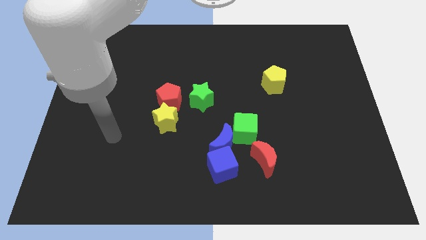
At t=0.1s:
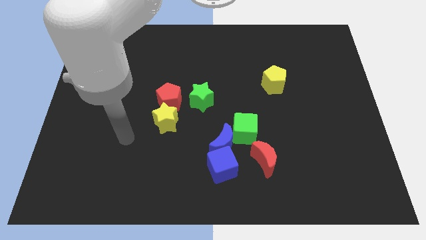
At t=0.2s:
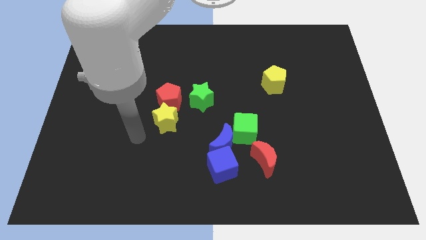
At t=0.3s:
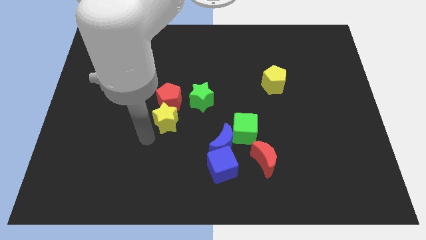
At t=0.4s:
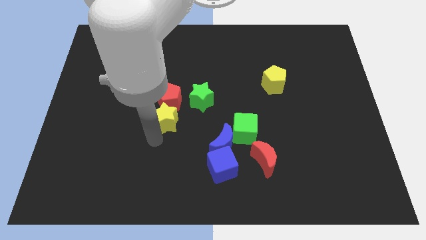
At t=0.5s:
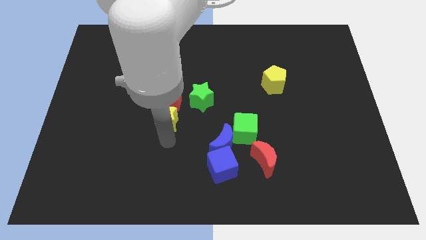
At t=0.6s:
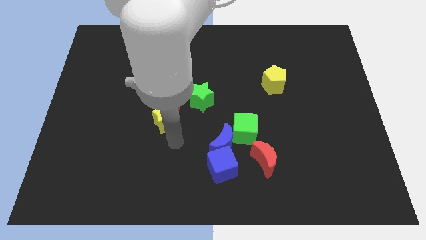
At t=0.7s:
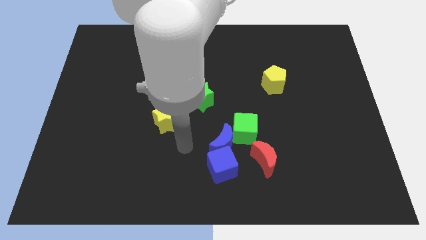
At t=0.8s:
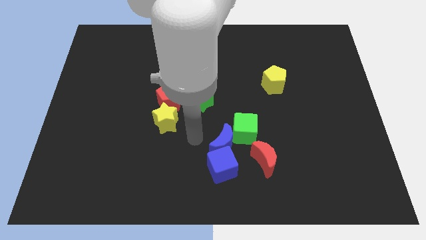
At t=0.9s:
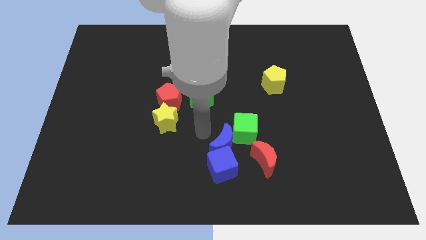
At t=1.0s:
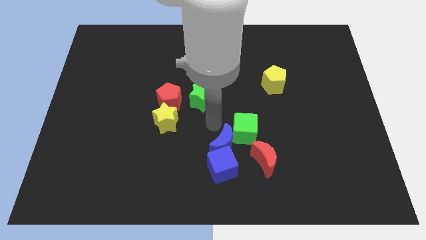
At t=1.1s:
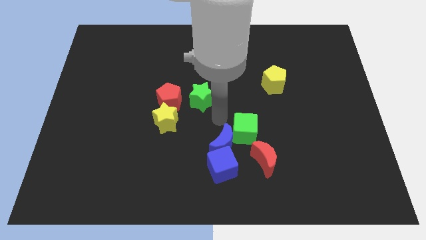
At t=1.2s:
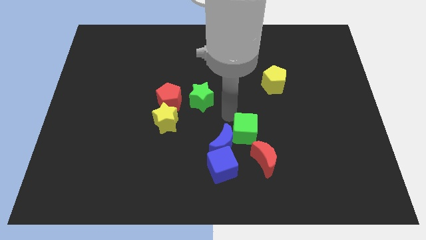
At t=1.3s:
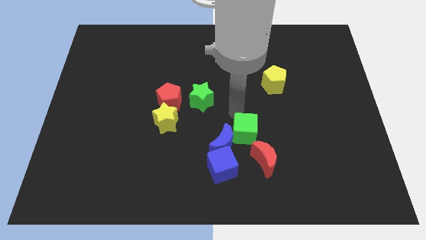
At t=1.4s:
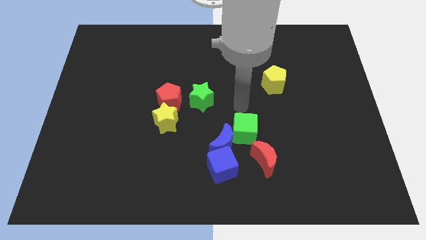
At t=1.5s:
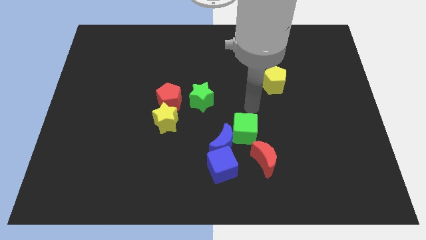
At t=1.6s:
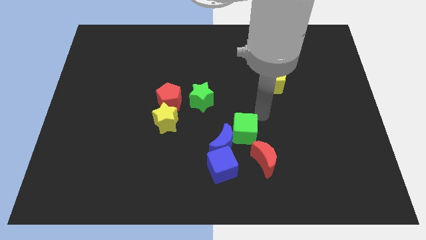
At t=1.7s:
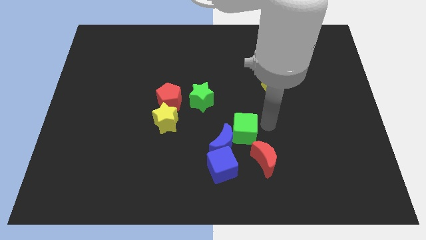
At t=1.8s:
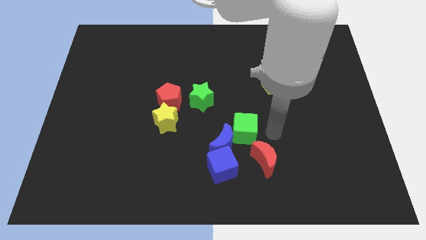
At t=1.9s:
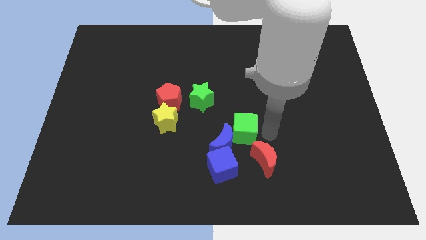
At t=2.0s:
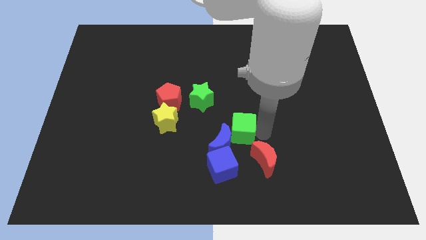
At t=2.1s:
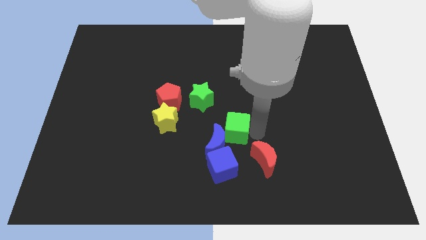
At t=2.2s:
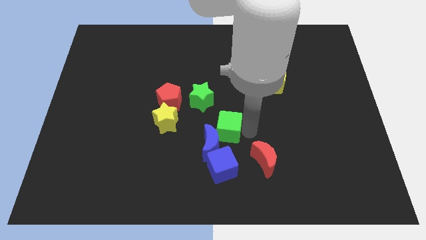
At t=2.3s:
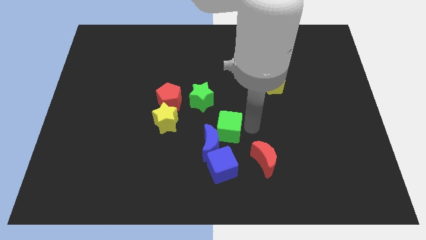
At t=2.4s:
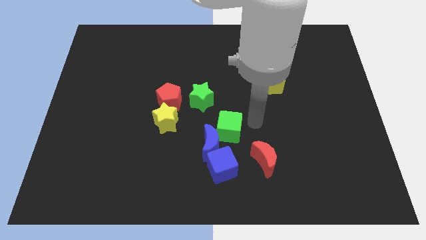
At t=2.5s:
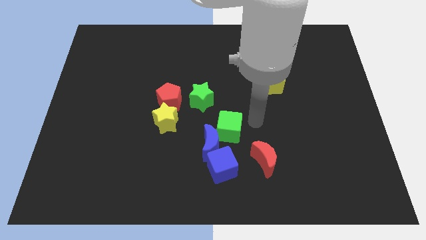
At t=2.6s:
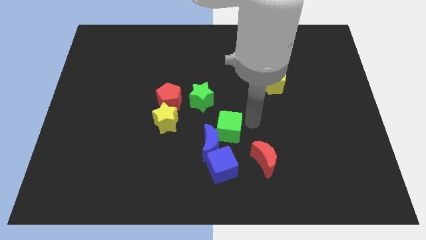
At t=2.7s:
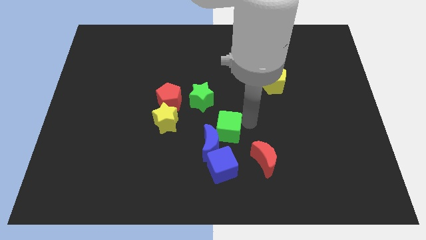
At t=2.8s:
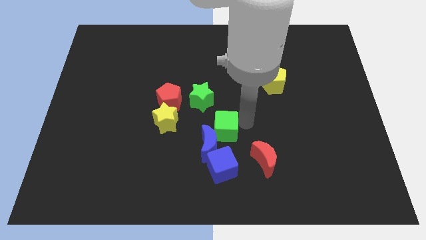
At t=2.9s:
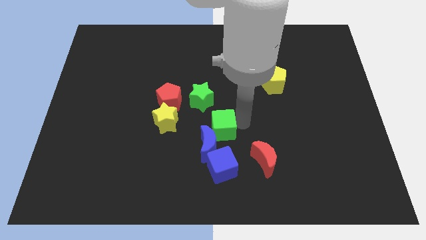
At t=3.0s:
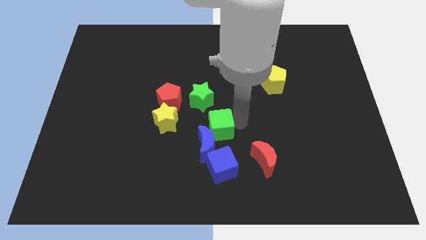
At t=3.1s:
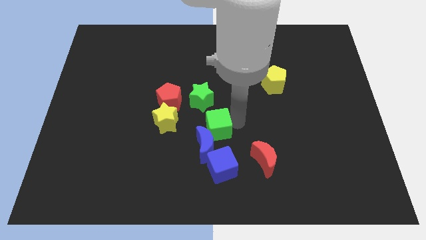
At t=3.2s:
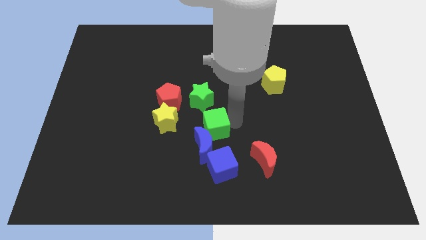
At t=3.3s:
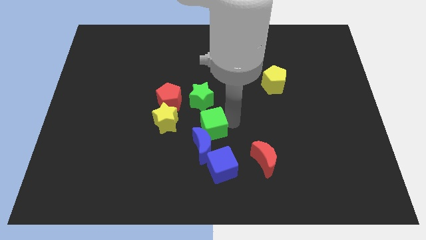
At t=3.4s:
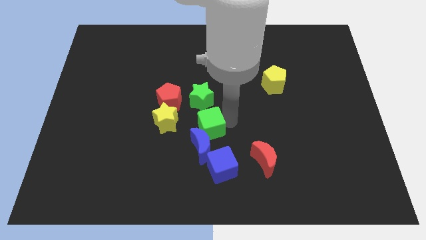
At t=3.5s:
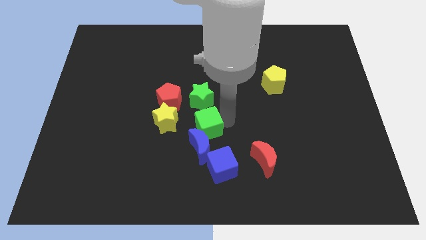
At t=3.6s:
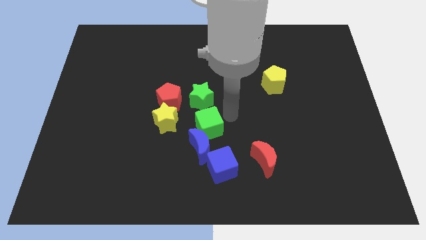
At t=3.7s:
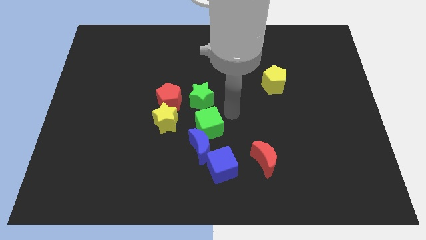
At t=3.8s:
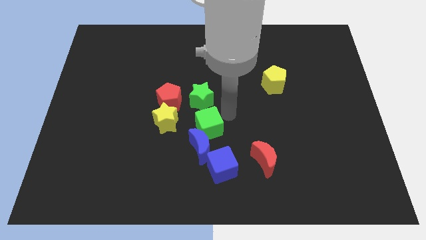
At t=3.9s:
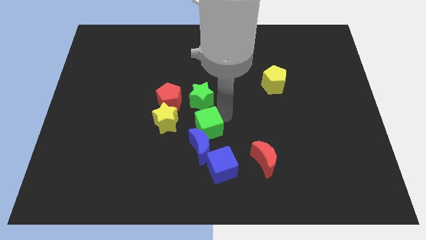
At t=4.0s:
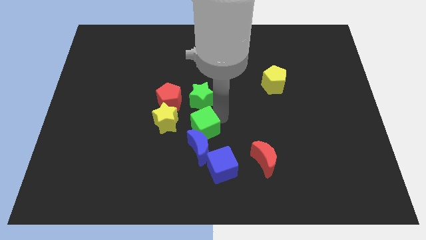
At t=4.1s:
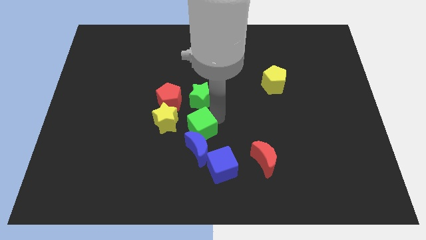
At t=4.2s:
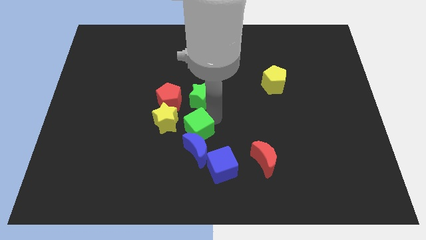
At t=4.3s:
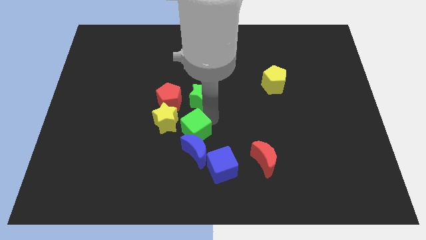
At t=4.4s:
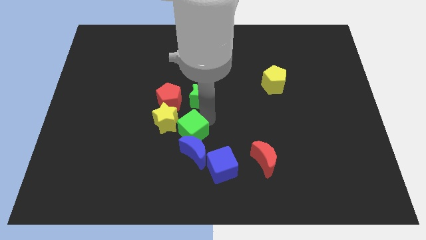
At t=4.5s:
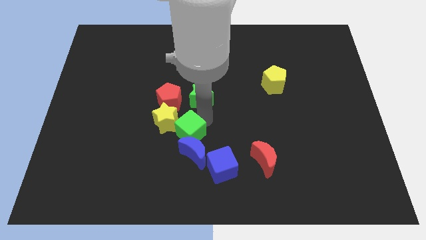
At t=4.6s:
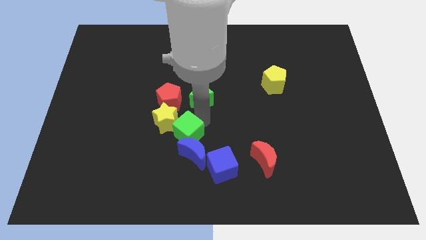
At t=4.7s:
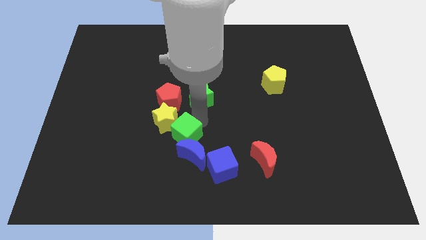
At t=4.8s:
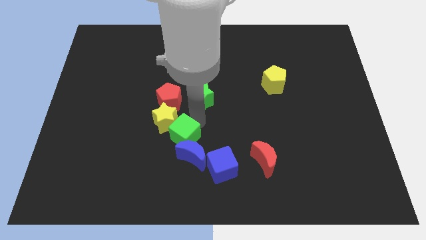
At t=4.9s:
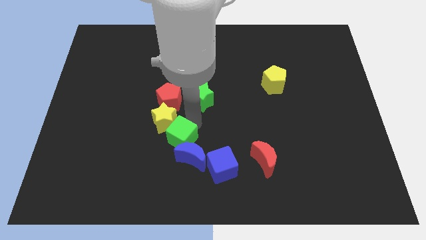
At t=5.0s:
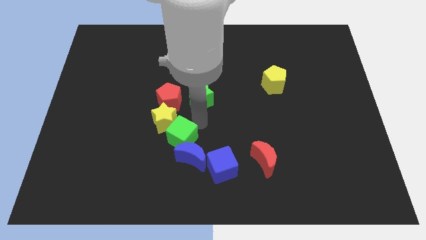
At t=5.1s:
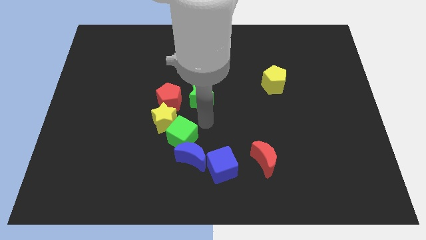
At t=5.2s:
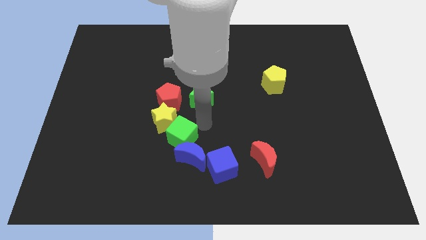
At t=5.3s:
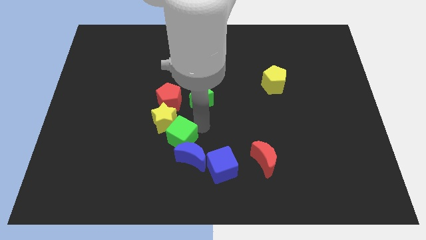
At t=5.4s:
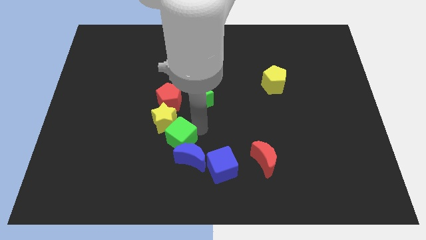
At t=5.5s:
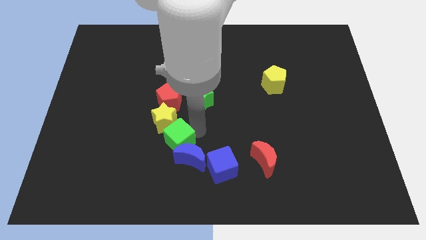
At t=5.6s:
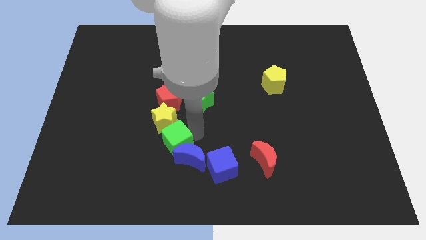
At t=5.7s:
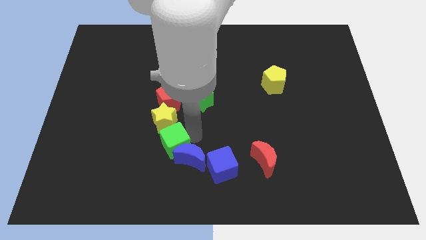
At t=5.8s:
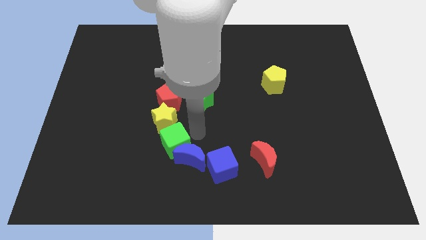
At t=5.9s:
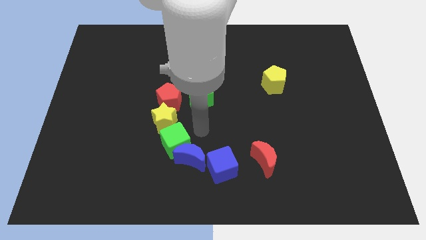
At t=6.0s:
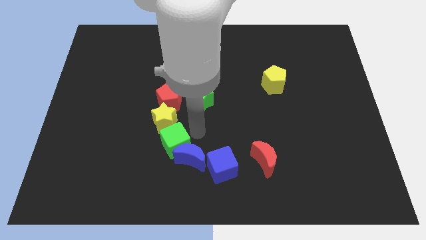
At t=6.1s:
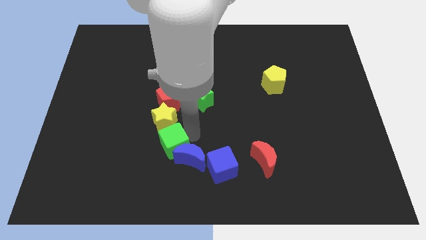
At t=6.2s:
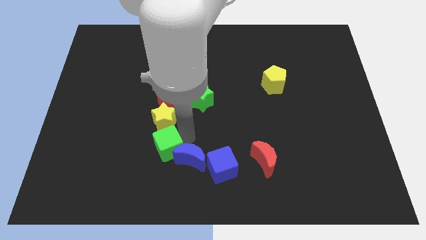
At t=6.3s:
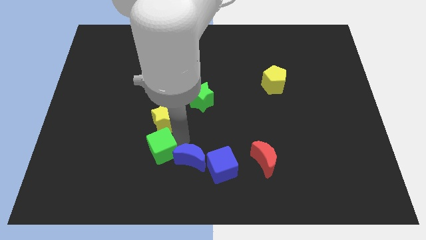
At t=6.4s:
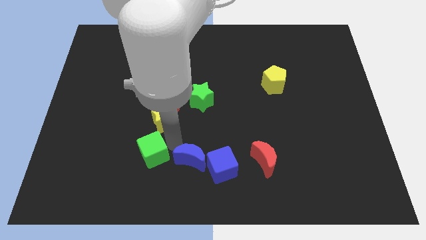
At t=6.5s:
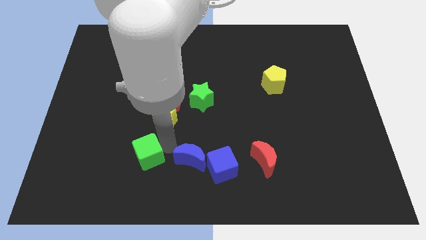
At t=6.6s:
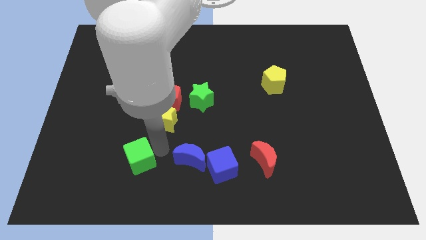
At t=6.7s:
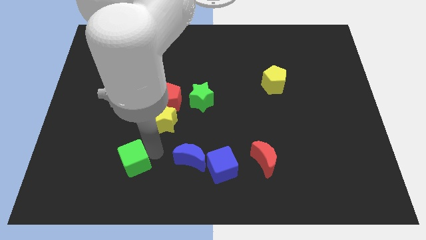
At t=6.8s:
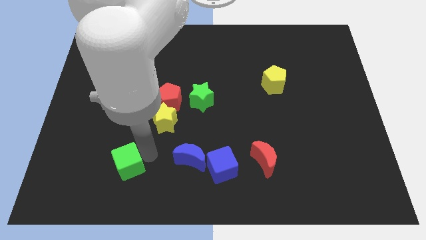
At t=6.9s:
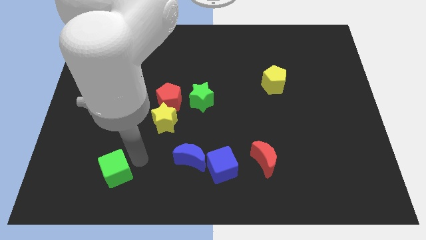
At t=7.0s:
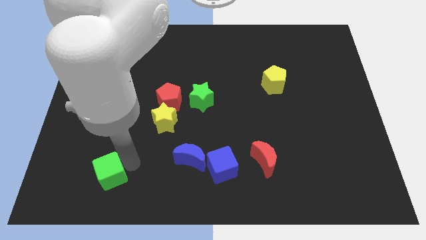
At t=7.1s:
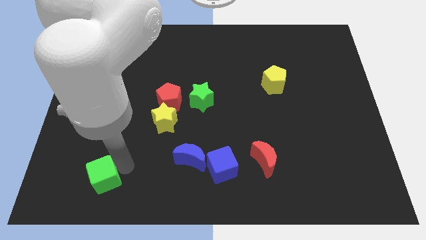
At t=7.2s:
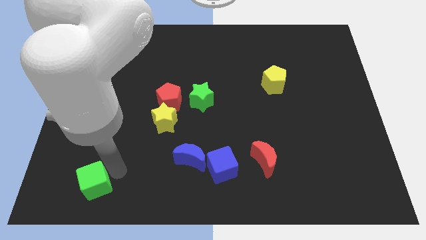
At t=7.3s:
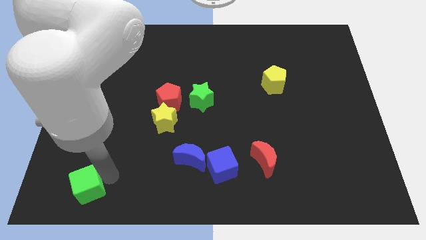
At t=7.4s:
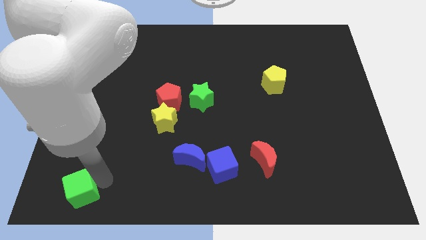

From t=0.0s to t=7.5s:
slide the green cube to the bottom left
